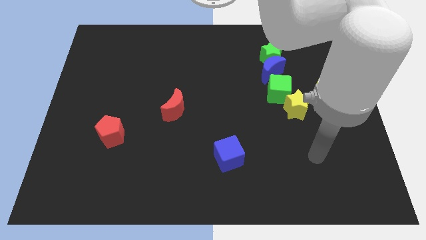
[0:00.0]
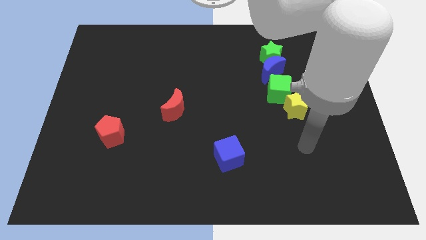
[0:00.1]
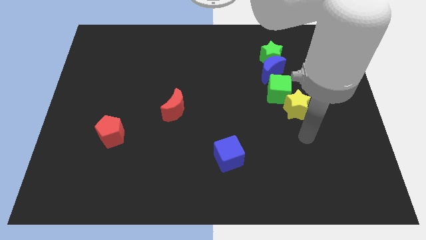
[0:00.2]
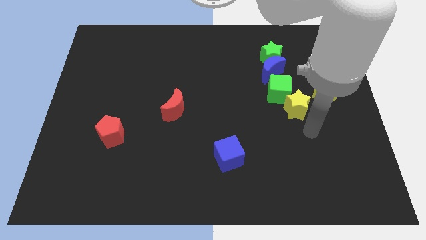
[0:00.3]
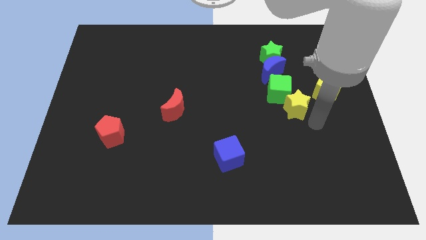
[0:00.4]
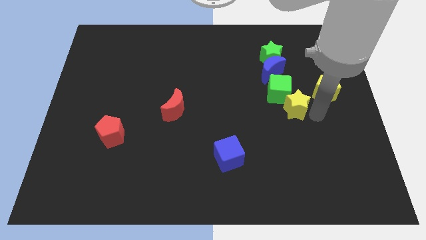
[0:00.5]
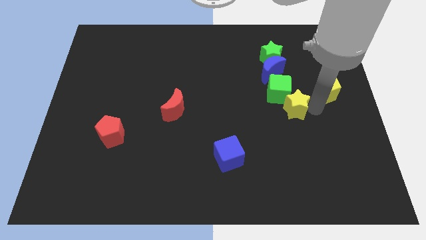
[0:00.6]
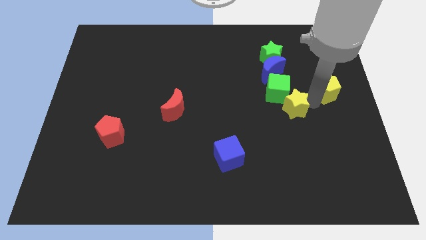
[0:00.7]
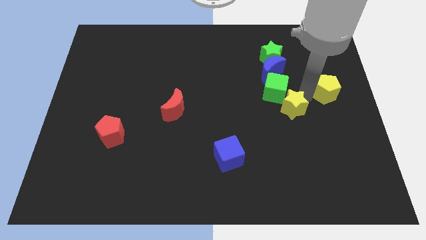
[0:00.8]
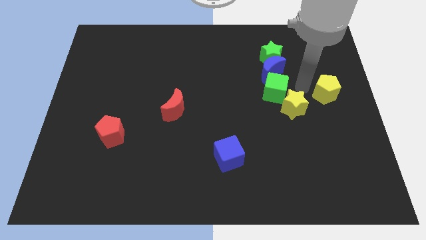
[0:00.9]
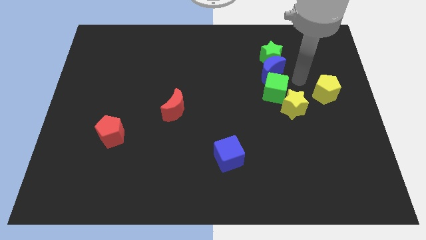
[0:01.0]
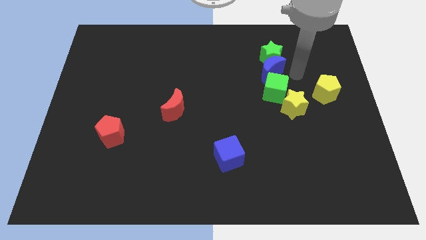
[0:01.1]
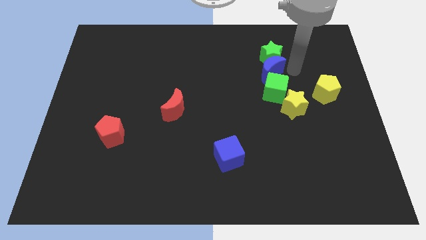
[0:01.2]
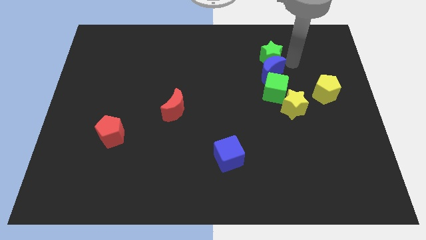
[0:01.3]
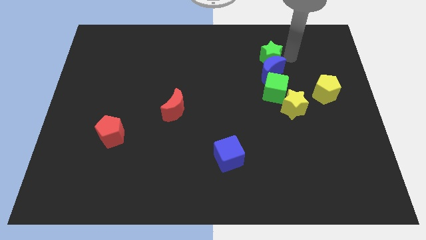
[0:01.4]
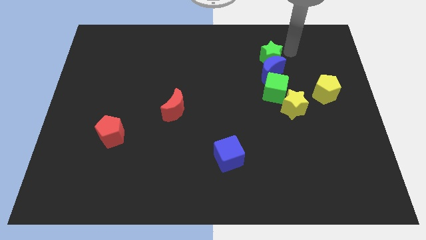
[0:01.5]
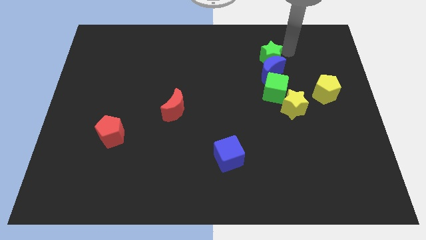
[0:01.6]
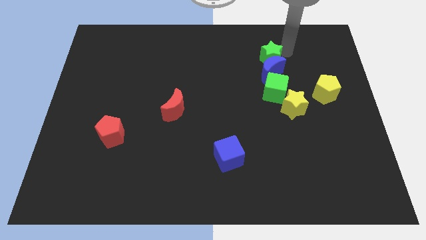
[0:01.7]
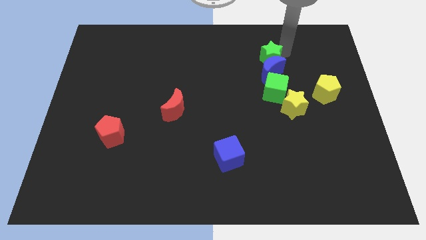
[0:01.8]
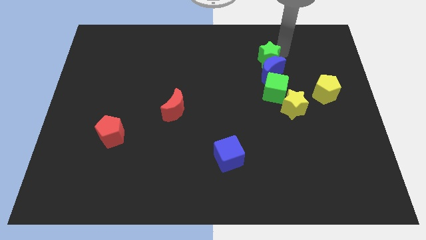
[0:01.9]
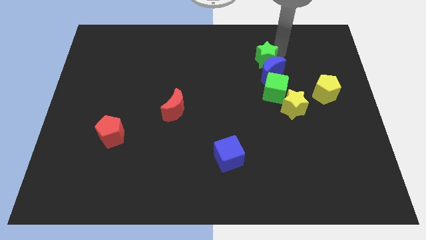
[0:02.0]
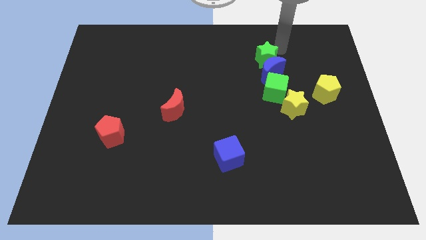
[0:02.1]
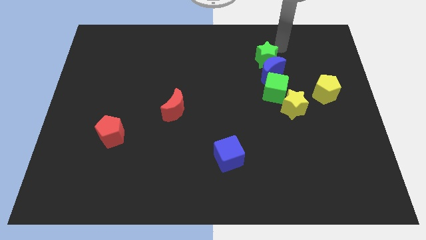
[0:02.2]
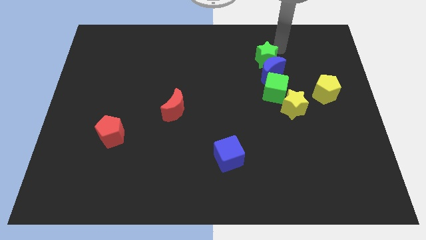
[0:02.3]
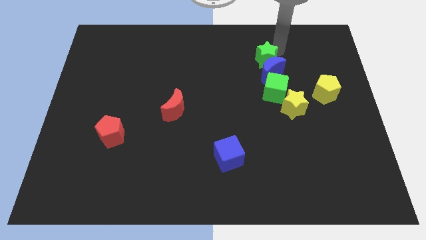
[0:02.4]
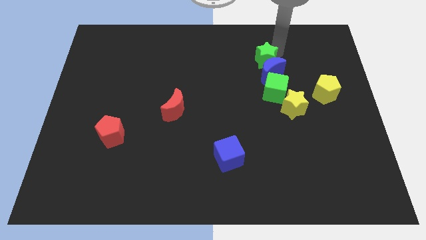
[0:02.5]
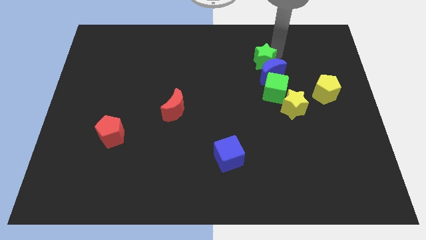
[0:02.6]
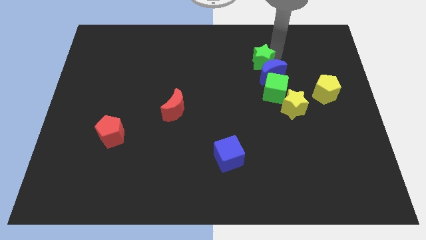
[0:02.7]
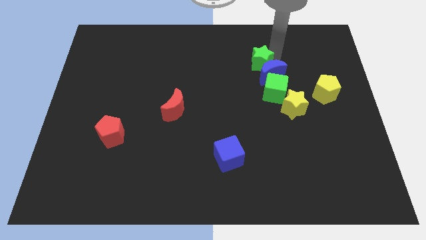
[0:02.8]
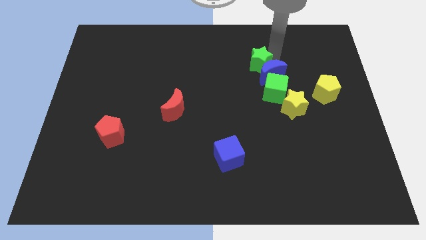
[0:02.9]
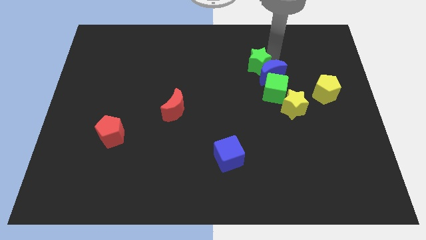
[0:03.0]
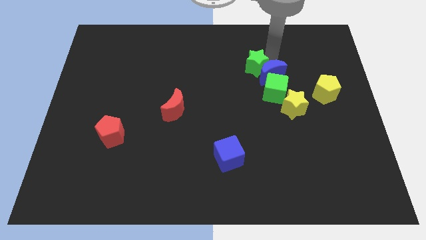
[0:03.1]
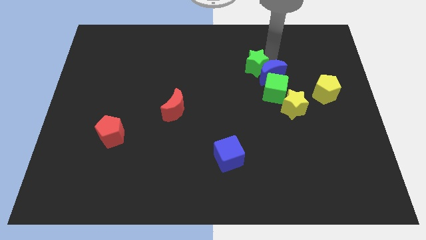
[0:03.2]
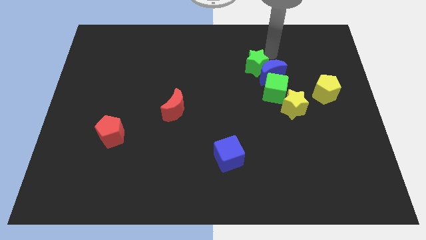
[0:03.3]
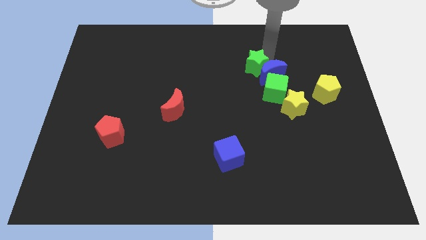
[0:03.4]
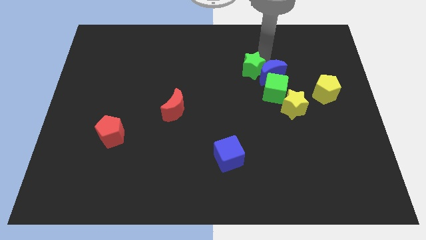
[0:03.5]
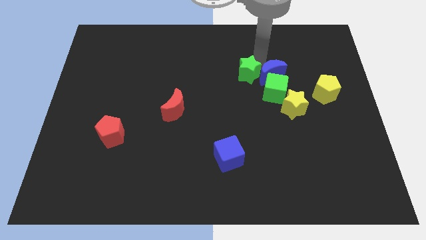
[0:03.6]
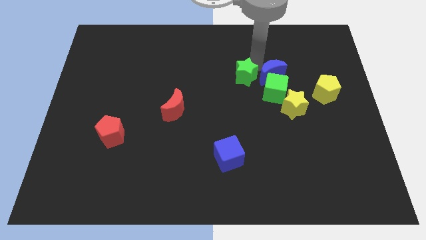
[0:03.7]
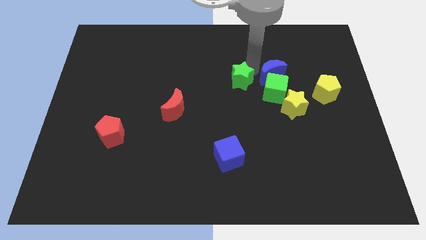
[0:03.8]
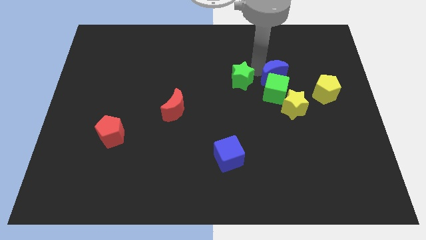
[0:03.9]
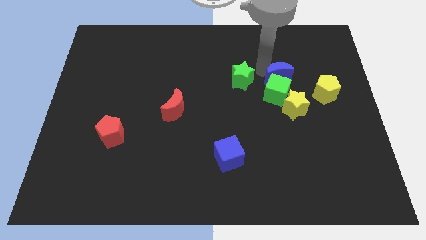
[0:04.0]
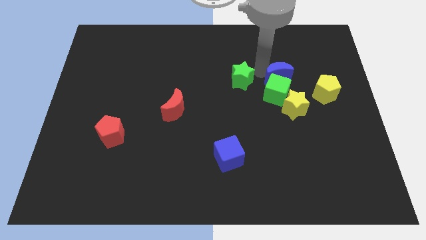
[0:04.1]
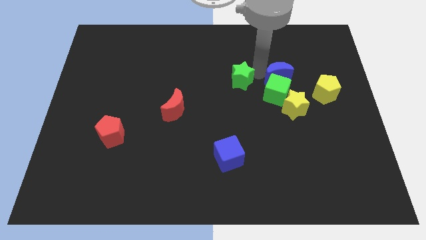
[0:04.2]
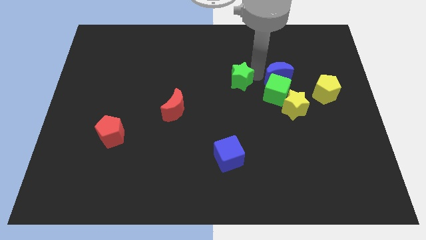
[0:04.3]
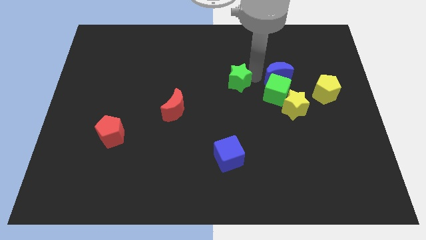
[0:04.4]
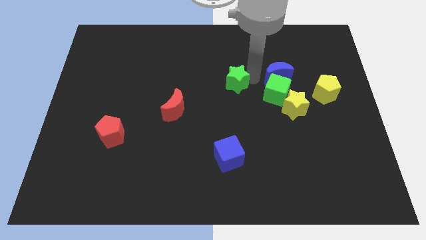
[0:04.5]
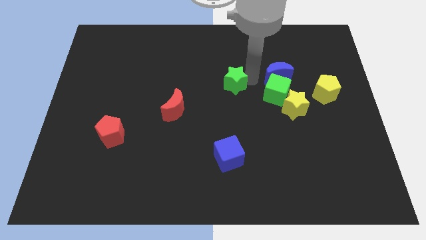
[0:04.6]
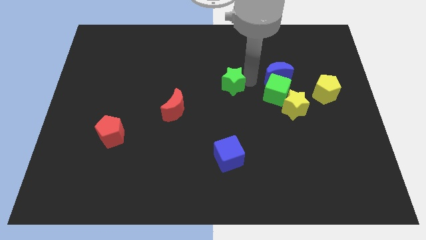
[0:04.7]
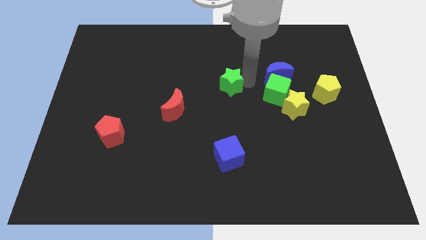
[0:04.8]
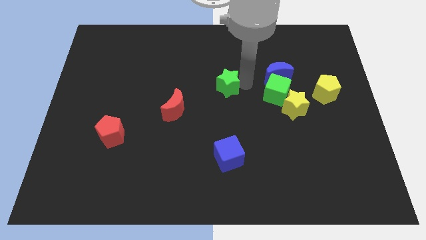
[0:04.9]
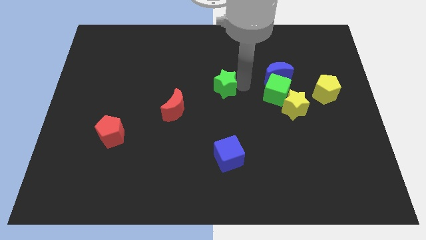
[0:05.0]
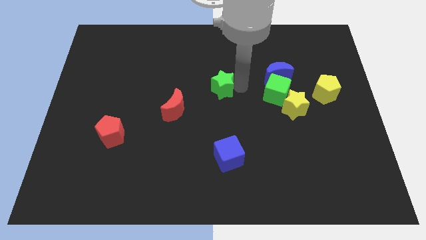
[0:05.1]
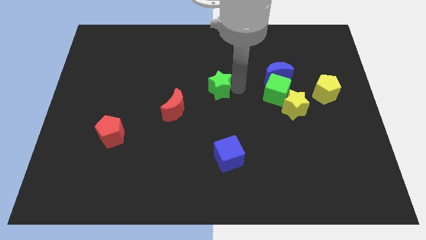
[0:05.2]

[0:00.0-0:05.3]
push the green star to the top right of the red moon

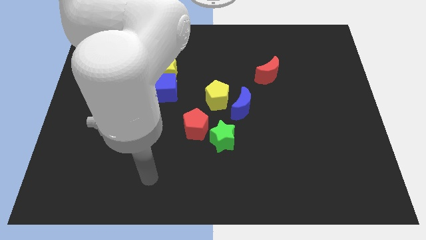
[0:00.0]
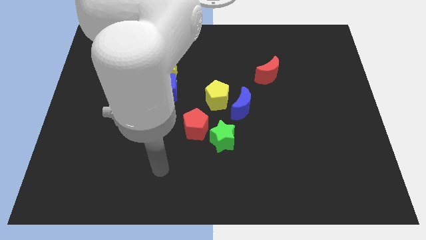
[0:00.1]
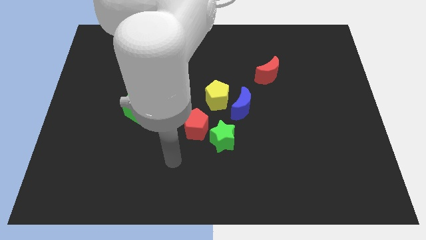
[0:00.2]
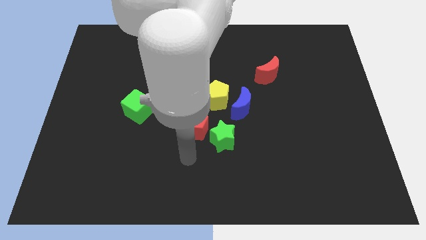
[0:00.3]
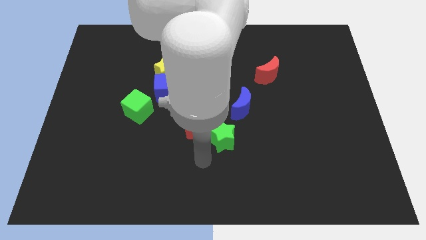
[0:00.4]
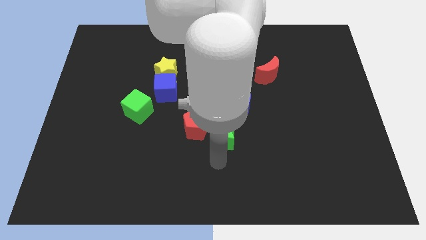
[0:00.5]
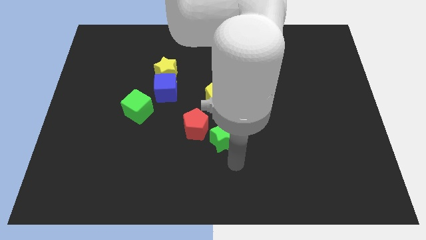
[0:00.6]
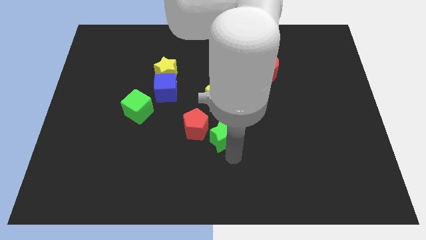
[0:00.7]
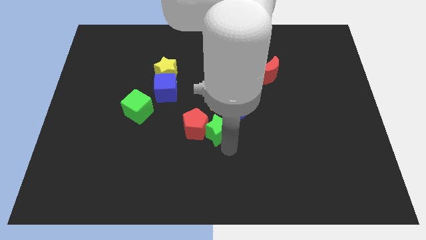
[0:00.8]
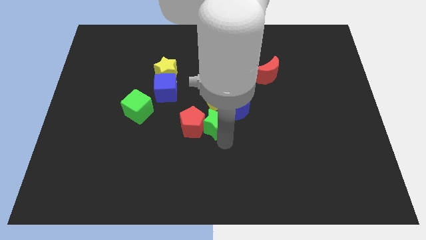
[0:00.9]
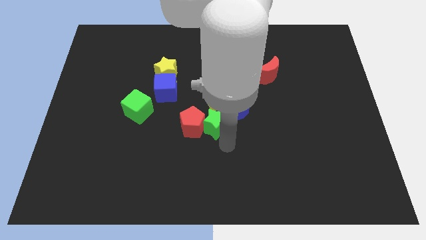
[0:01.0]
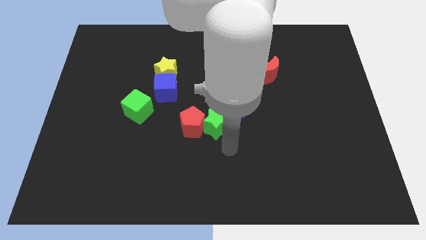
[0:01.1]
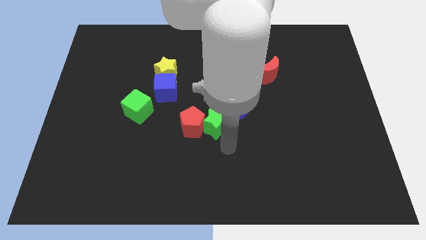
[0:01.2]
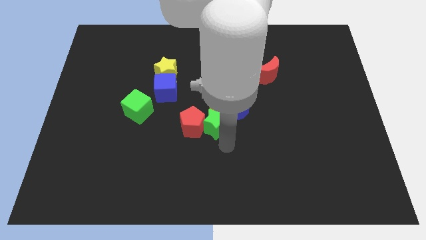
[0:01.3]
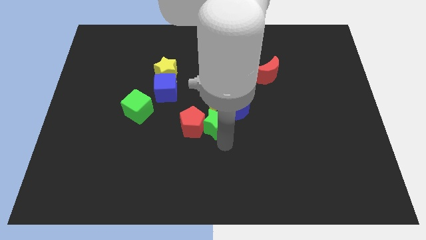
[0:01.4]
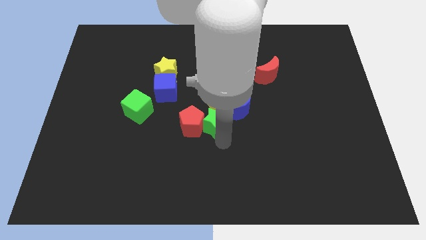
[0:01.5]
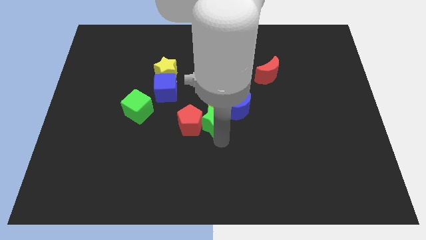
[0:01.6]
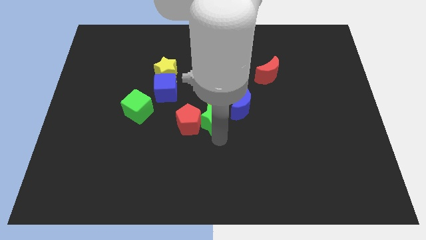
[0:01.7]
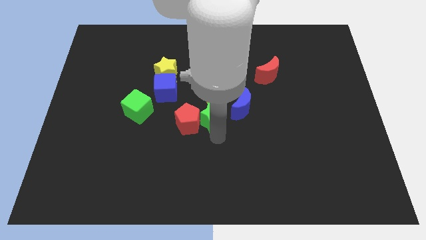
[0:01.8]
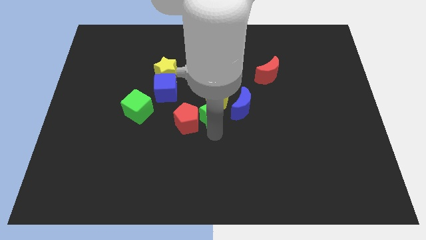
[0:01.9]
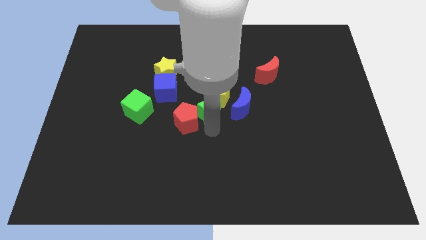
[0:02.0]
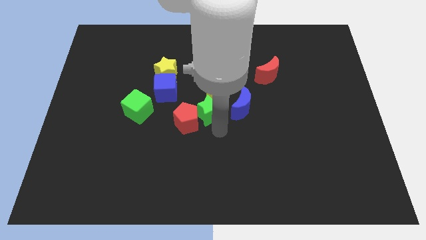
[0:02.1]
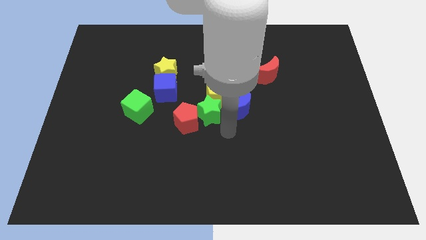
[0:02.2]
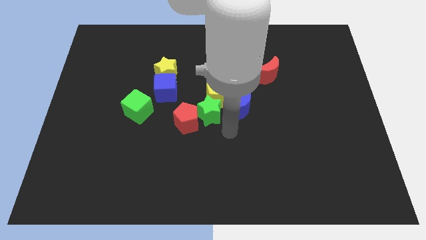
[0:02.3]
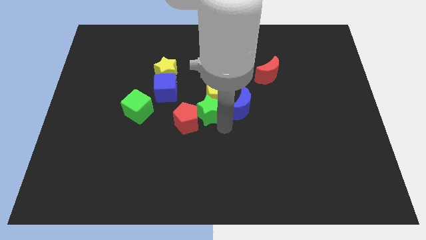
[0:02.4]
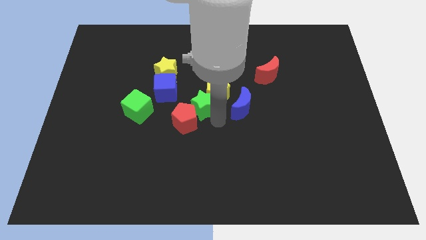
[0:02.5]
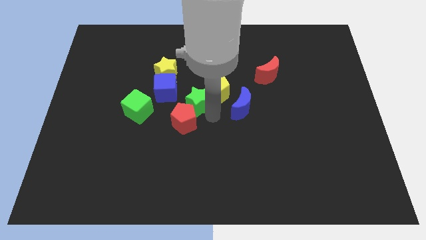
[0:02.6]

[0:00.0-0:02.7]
push the green star diagonally down and to the right of the yellow star

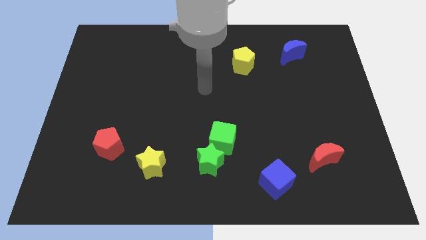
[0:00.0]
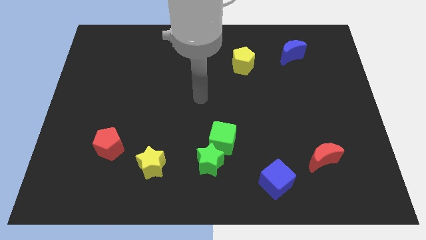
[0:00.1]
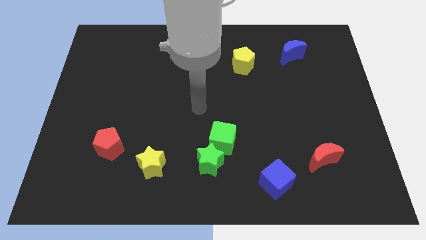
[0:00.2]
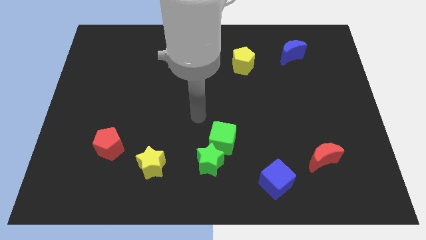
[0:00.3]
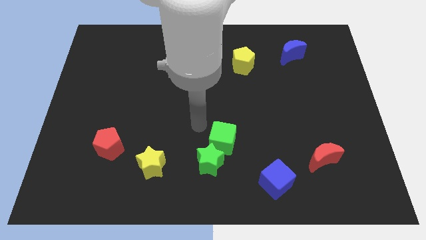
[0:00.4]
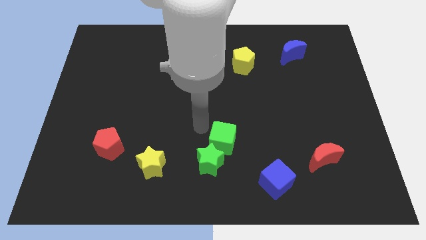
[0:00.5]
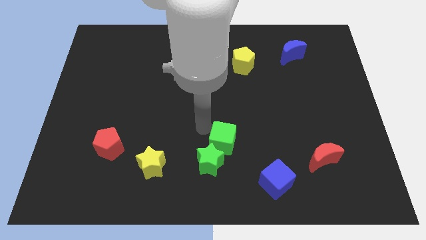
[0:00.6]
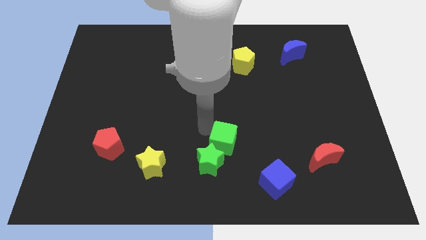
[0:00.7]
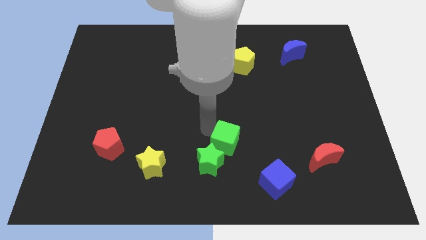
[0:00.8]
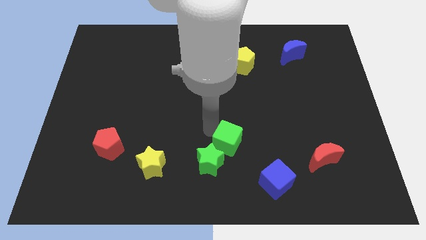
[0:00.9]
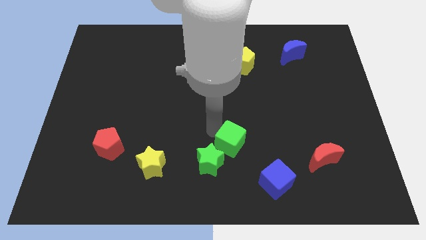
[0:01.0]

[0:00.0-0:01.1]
push the green cube to the top left of the blue cube
